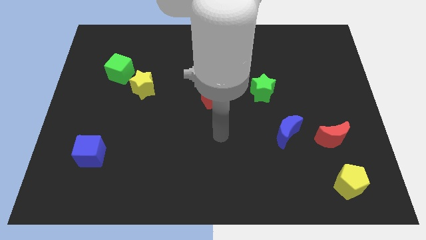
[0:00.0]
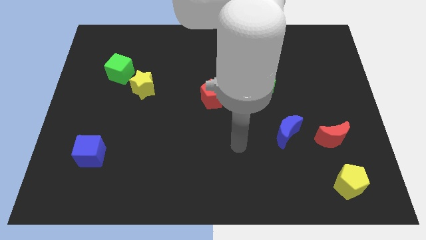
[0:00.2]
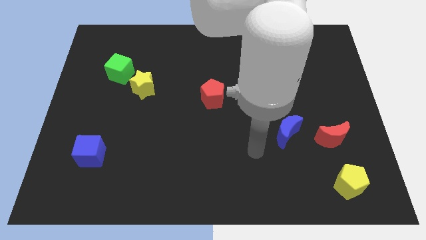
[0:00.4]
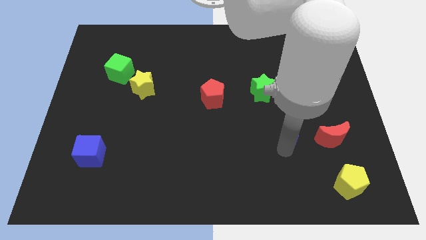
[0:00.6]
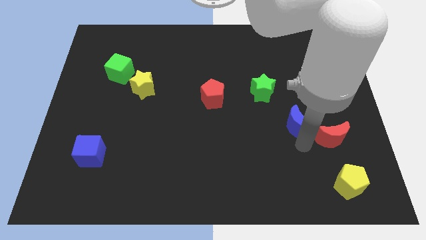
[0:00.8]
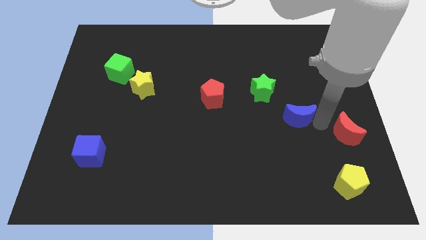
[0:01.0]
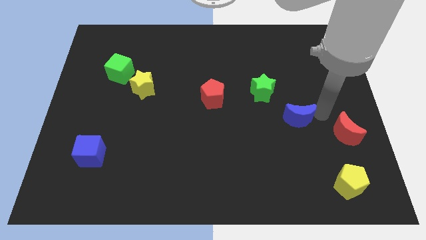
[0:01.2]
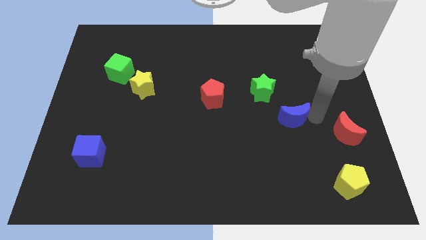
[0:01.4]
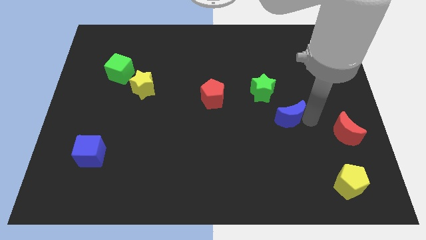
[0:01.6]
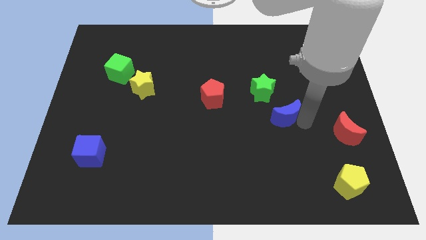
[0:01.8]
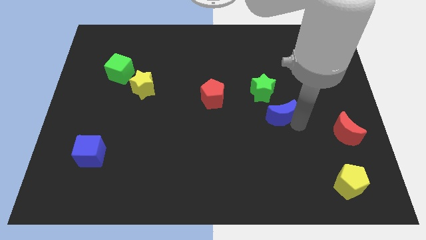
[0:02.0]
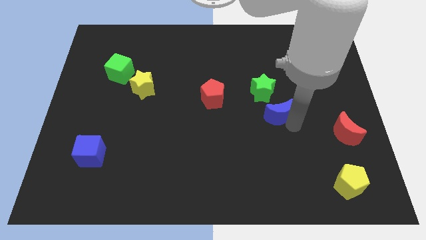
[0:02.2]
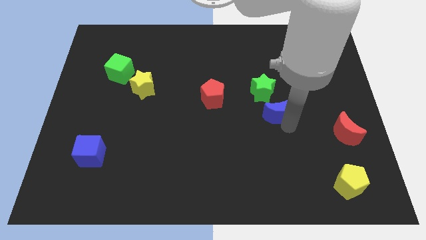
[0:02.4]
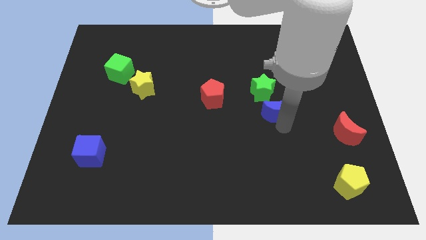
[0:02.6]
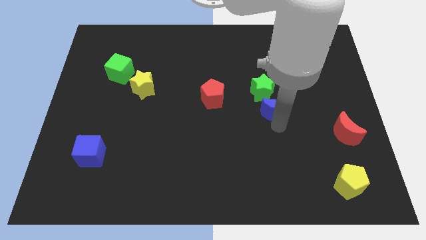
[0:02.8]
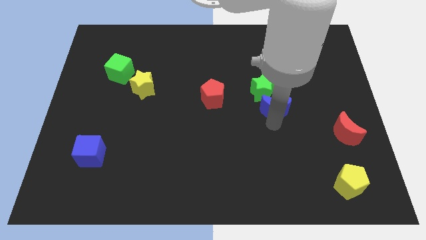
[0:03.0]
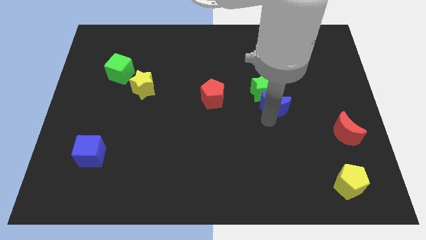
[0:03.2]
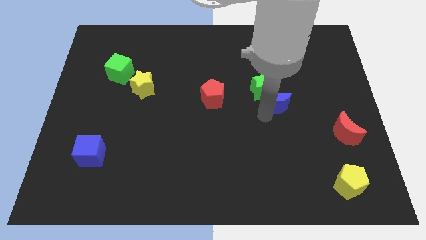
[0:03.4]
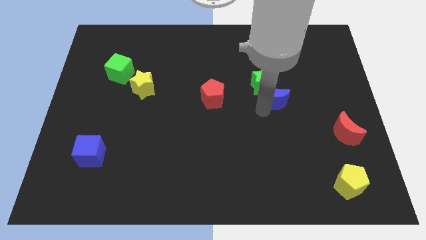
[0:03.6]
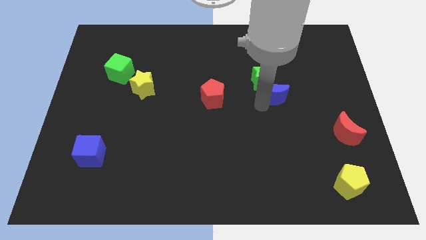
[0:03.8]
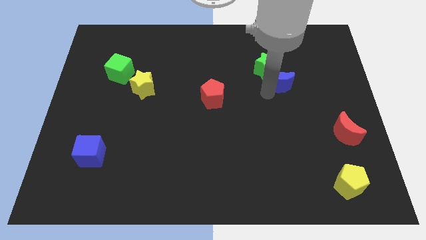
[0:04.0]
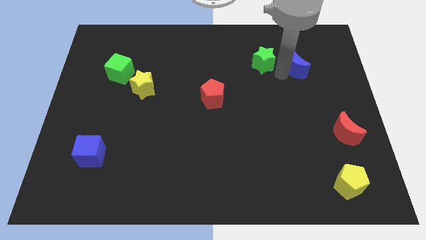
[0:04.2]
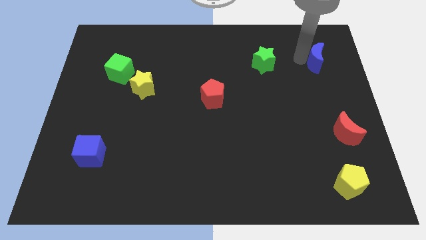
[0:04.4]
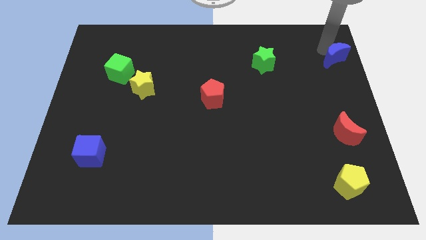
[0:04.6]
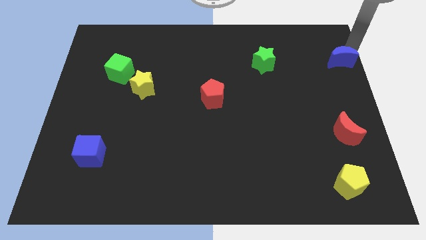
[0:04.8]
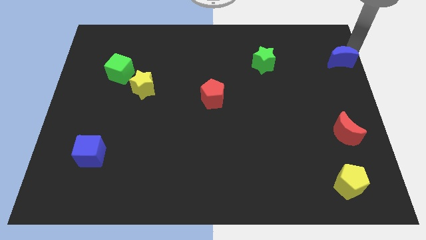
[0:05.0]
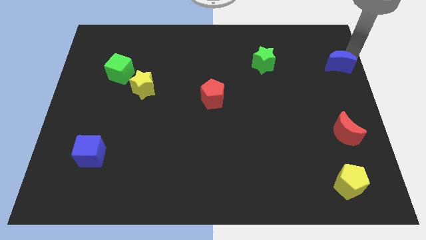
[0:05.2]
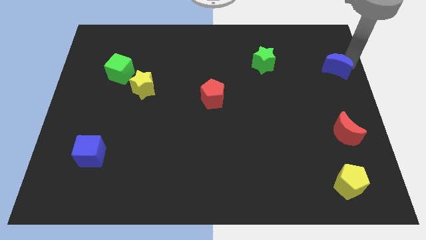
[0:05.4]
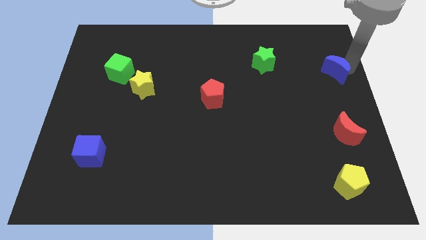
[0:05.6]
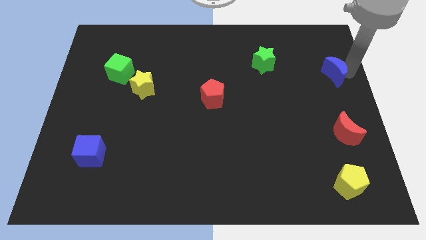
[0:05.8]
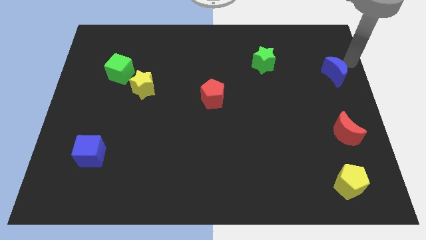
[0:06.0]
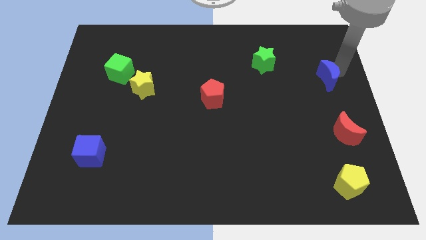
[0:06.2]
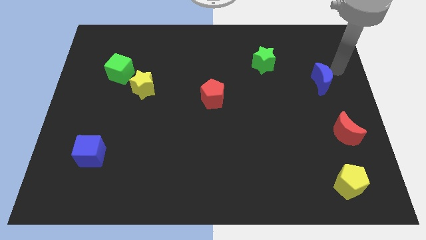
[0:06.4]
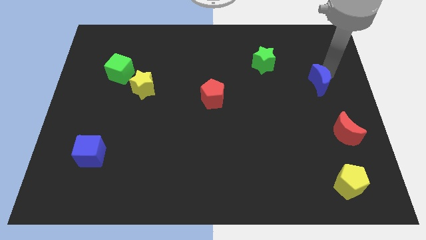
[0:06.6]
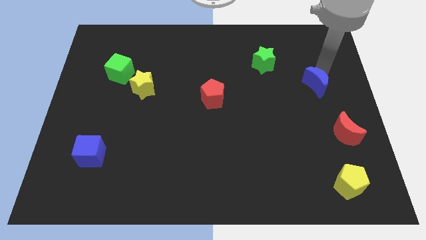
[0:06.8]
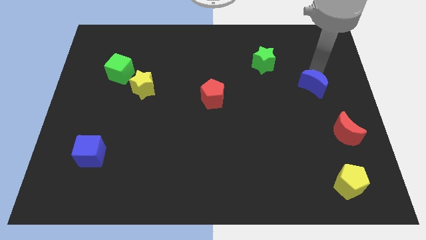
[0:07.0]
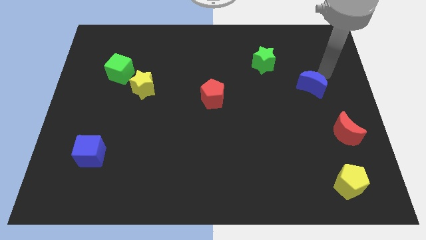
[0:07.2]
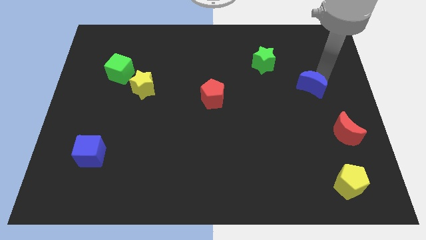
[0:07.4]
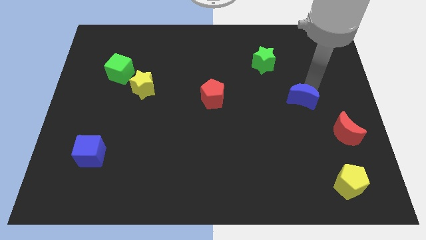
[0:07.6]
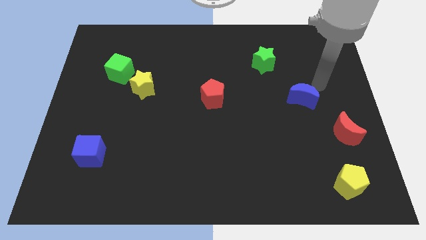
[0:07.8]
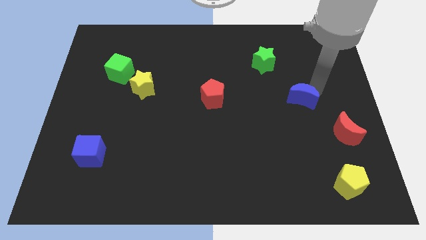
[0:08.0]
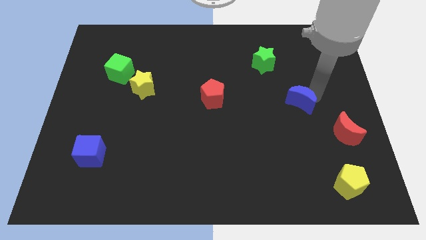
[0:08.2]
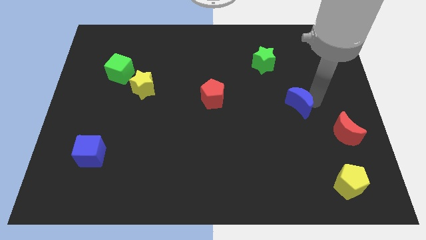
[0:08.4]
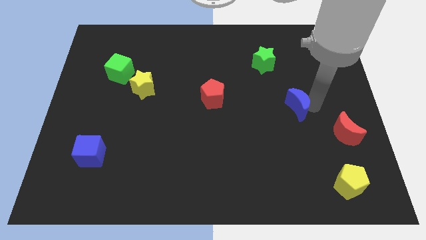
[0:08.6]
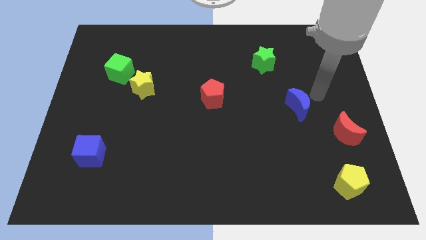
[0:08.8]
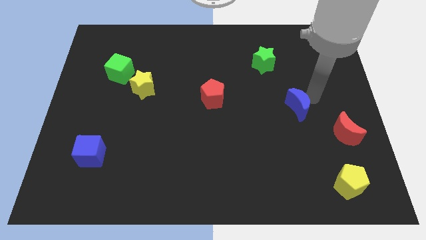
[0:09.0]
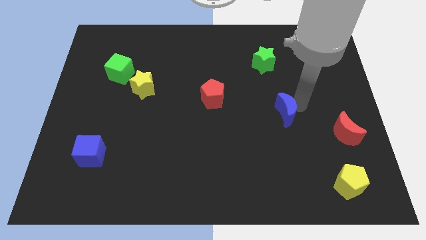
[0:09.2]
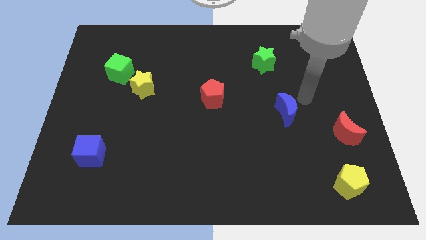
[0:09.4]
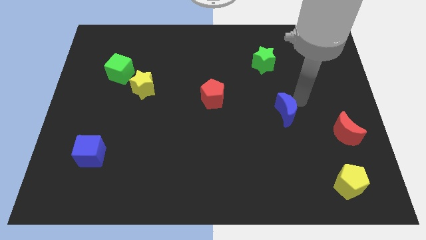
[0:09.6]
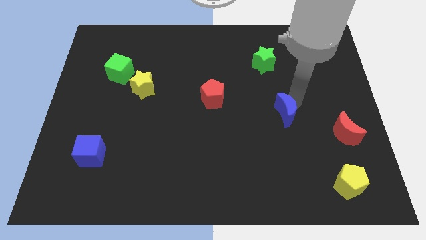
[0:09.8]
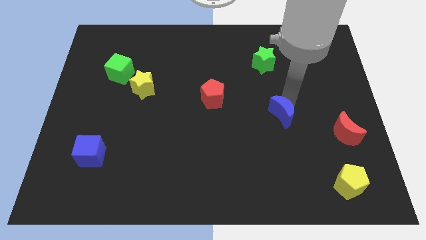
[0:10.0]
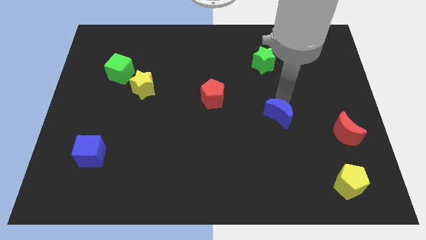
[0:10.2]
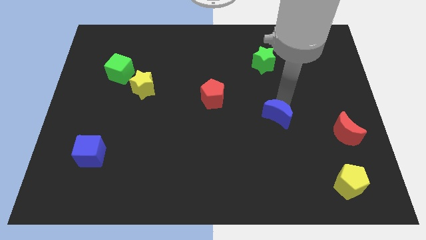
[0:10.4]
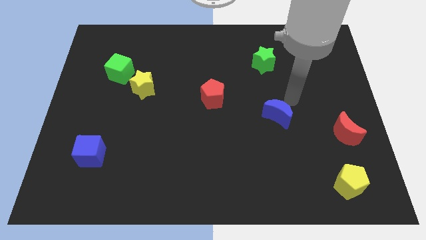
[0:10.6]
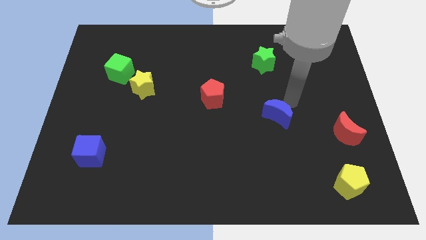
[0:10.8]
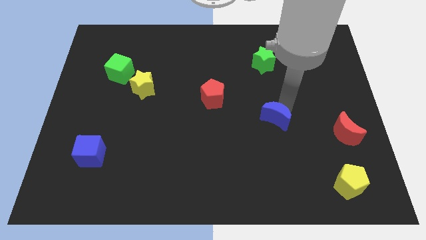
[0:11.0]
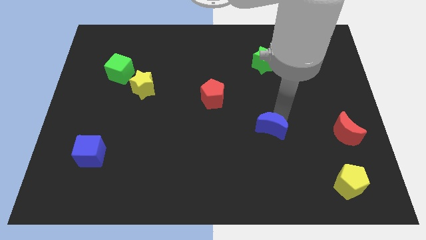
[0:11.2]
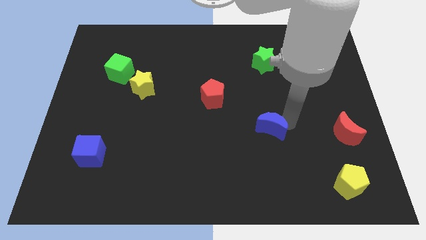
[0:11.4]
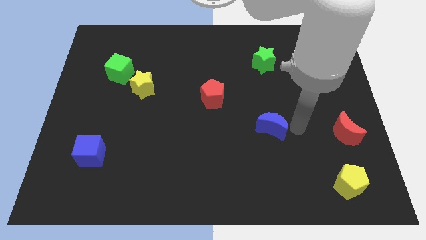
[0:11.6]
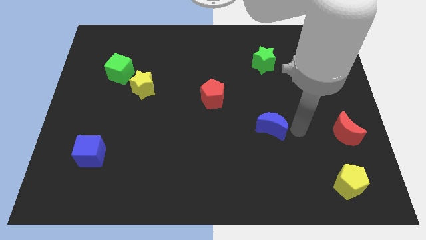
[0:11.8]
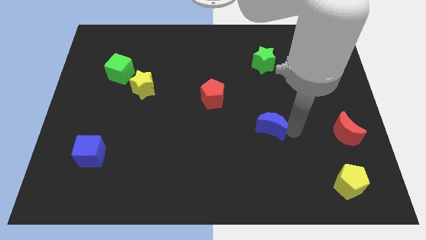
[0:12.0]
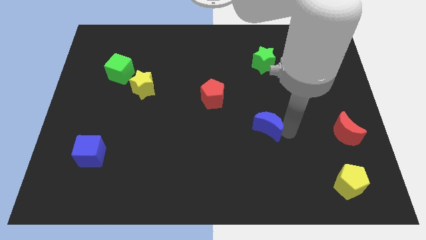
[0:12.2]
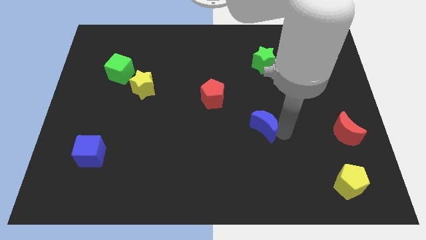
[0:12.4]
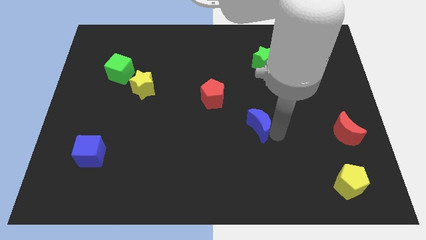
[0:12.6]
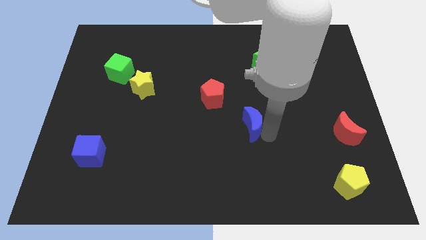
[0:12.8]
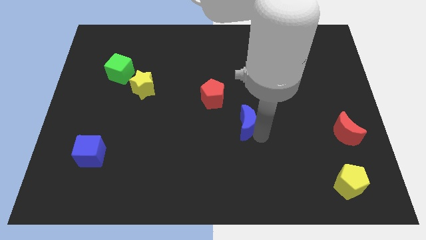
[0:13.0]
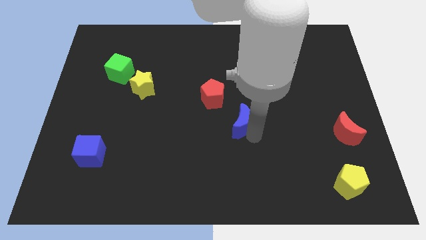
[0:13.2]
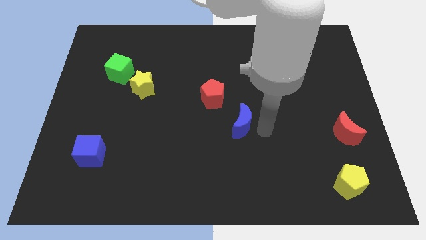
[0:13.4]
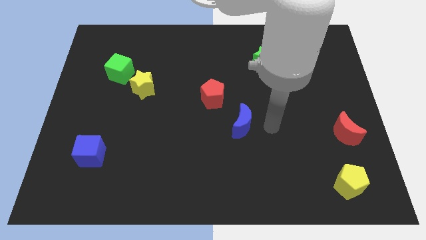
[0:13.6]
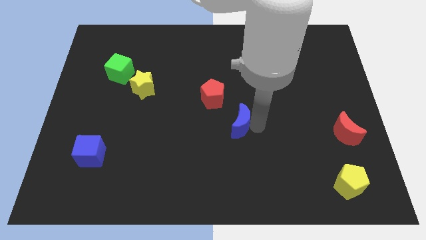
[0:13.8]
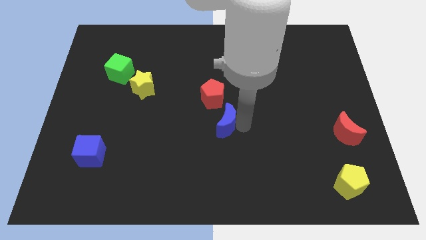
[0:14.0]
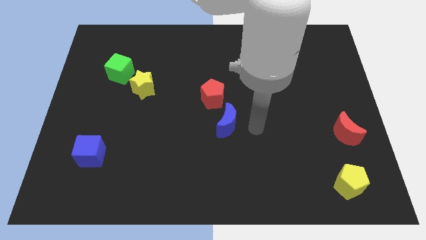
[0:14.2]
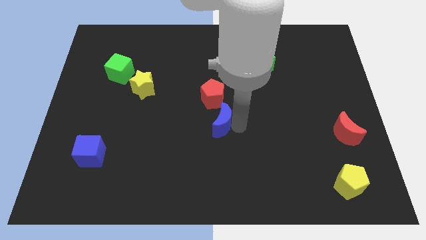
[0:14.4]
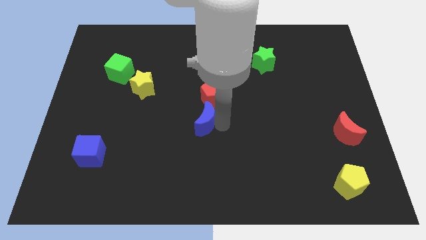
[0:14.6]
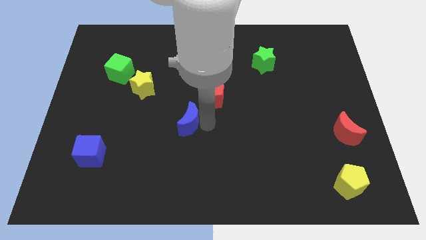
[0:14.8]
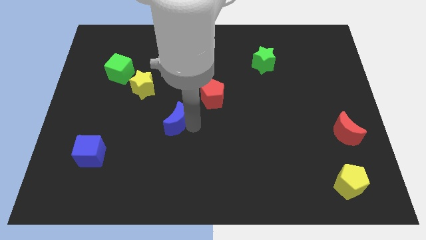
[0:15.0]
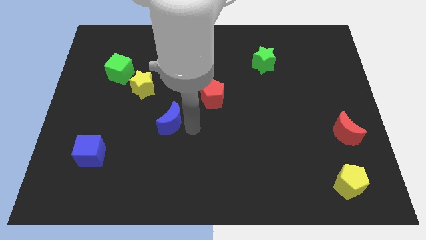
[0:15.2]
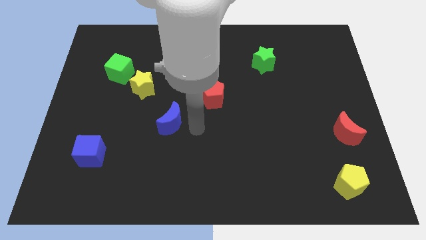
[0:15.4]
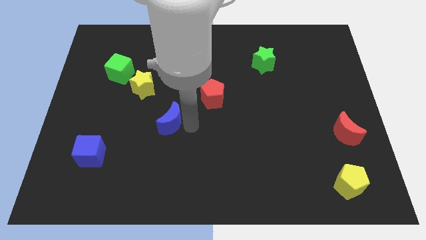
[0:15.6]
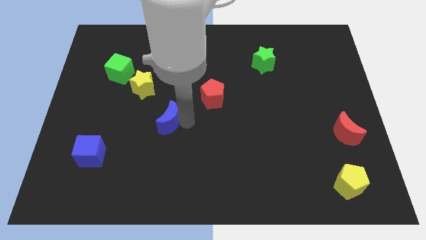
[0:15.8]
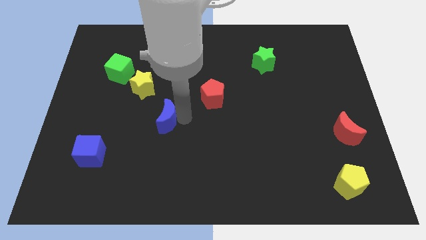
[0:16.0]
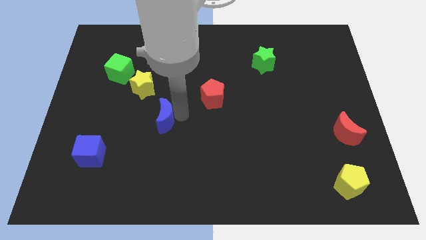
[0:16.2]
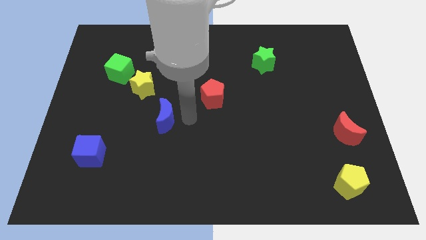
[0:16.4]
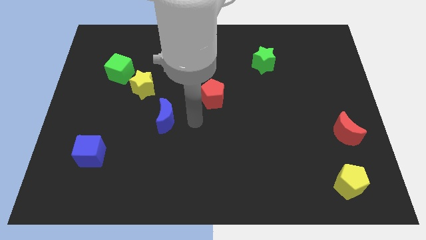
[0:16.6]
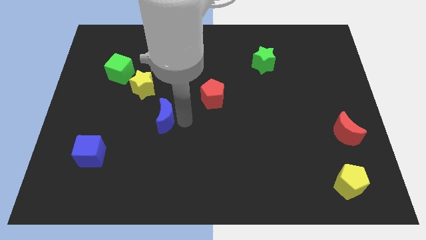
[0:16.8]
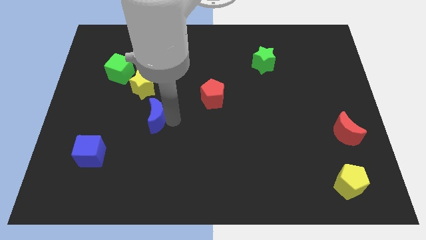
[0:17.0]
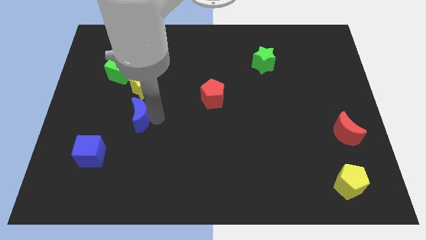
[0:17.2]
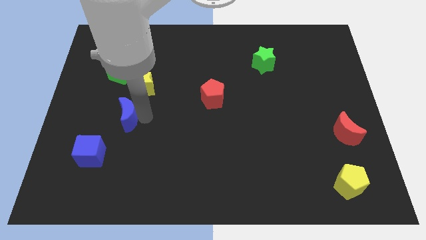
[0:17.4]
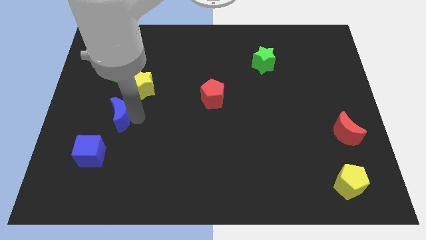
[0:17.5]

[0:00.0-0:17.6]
push the blue moon to the top of the blue cube
